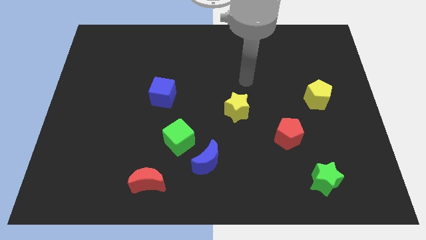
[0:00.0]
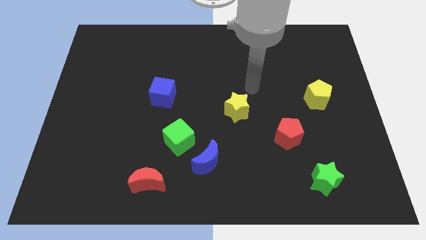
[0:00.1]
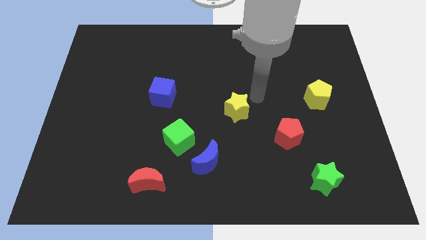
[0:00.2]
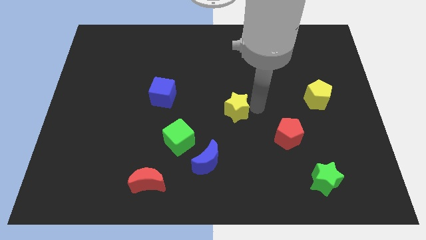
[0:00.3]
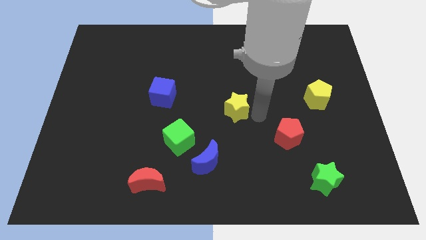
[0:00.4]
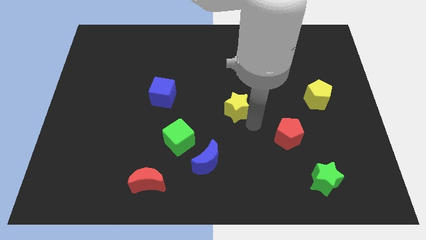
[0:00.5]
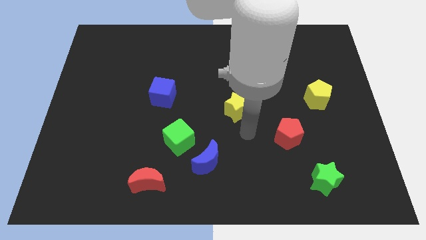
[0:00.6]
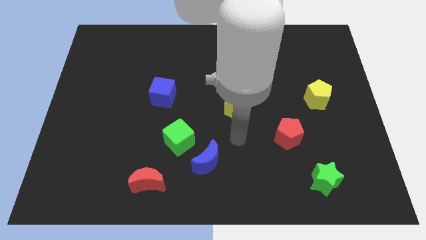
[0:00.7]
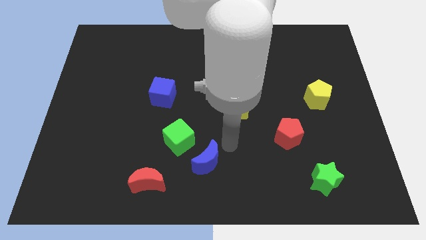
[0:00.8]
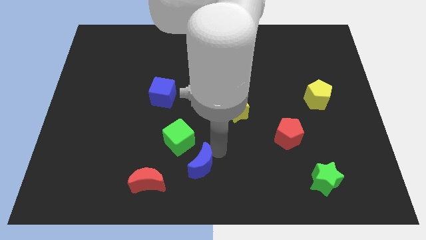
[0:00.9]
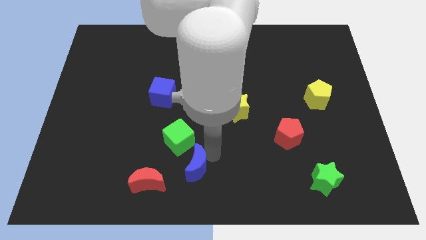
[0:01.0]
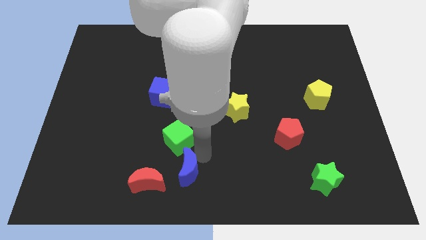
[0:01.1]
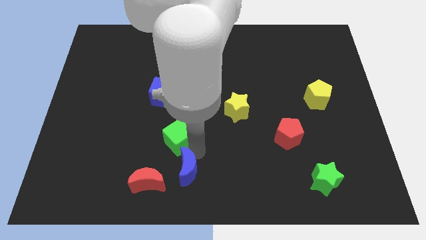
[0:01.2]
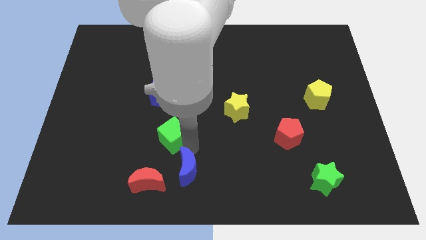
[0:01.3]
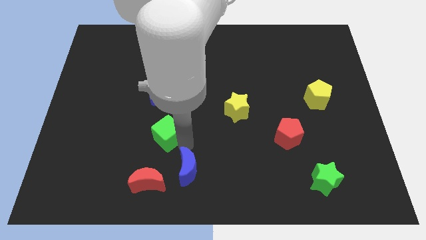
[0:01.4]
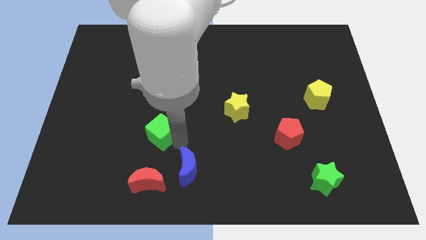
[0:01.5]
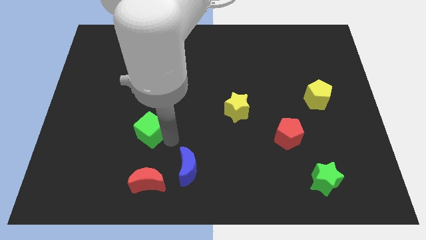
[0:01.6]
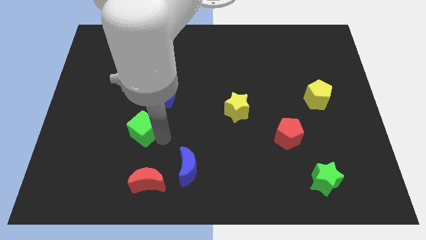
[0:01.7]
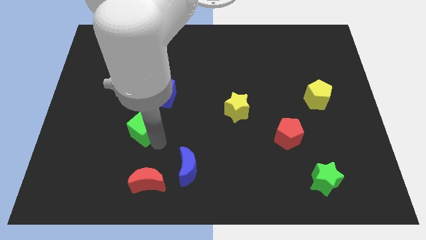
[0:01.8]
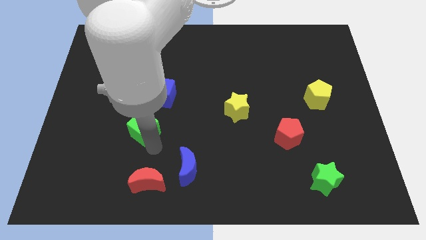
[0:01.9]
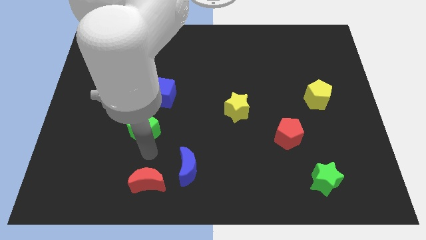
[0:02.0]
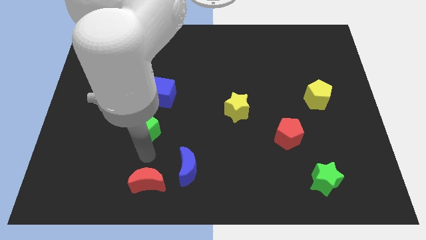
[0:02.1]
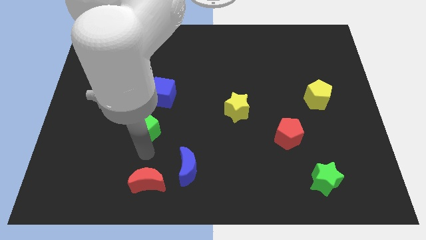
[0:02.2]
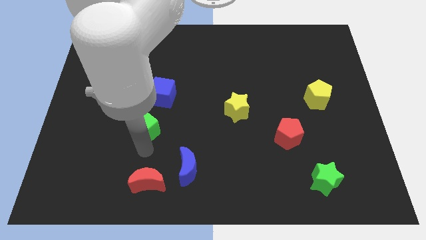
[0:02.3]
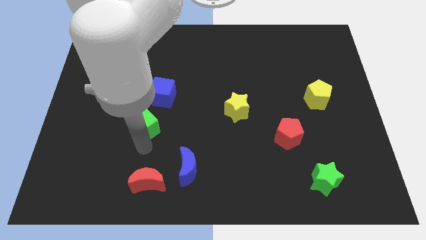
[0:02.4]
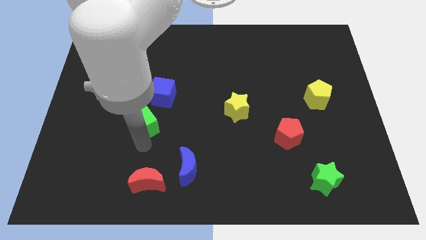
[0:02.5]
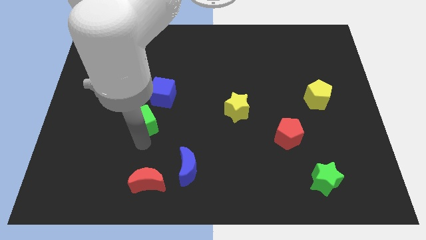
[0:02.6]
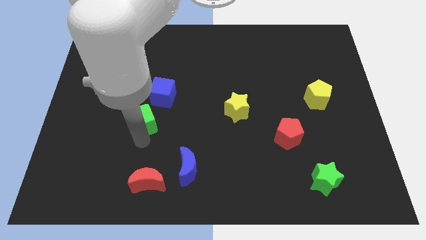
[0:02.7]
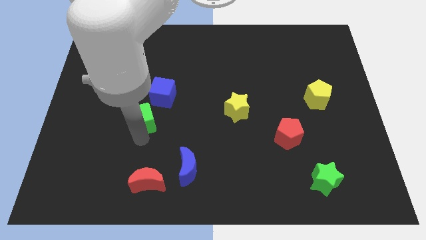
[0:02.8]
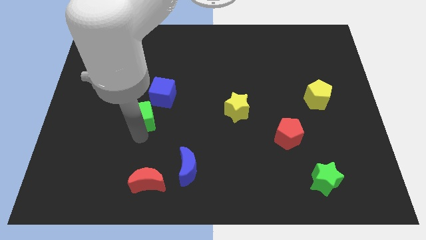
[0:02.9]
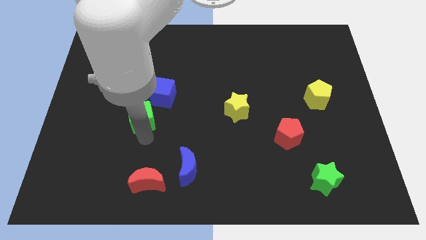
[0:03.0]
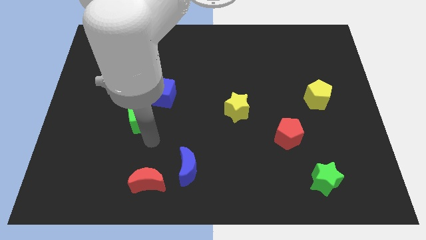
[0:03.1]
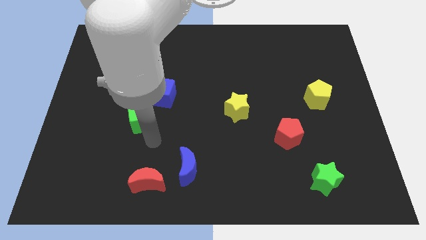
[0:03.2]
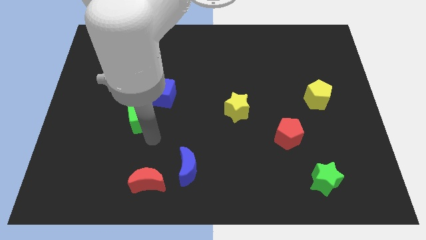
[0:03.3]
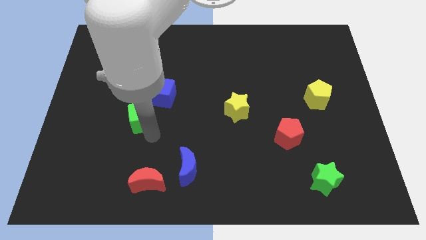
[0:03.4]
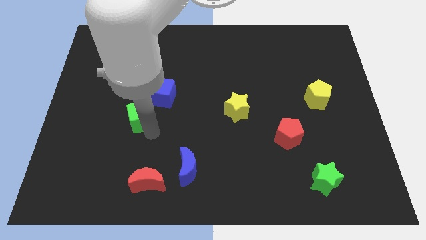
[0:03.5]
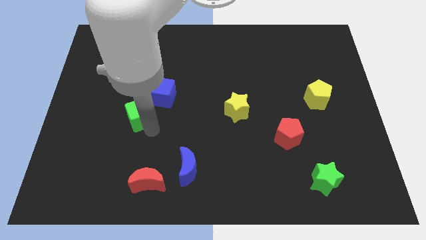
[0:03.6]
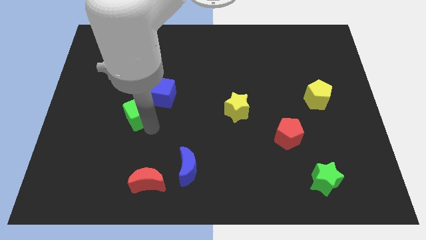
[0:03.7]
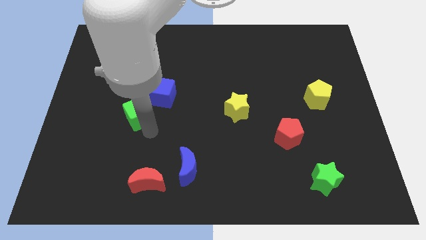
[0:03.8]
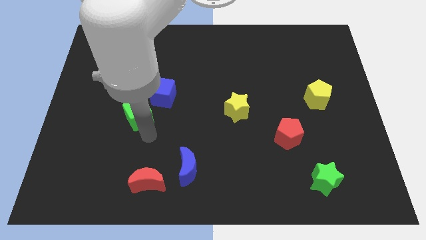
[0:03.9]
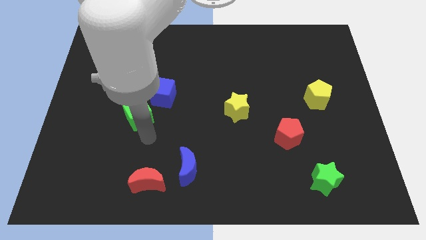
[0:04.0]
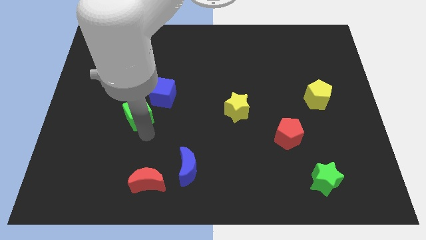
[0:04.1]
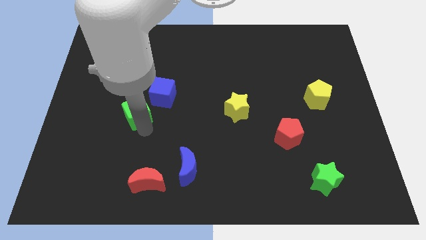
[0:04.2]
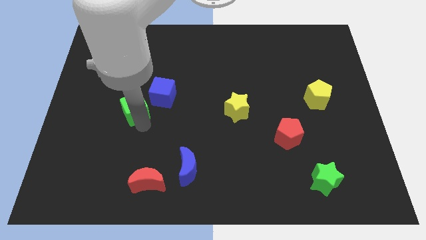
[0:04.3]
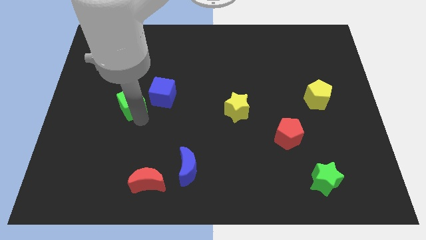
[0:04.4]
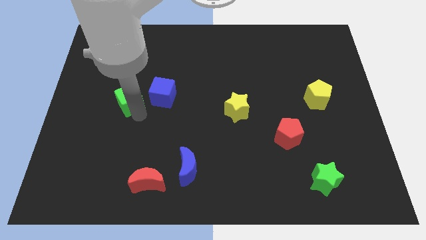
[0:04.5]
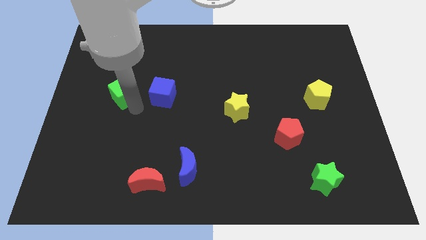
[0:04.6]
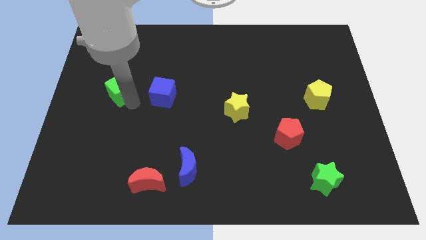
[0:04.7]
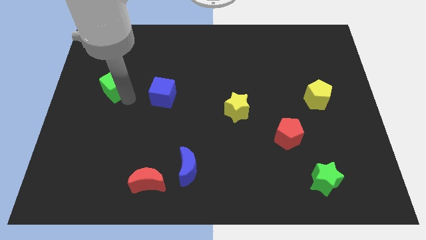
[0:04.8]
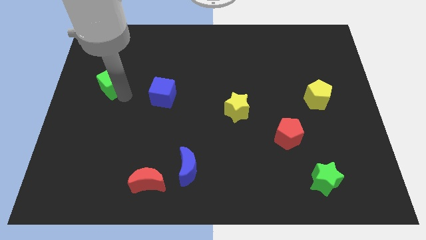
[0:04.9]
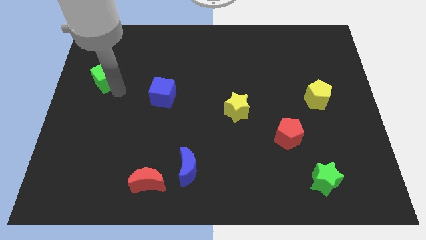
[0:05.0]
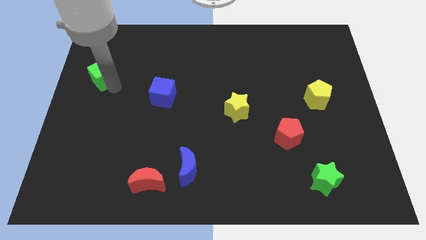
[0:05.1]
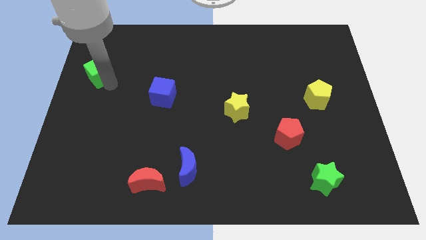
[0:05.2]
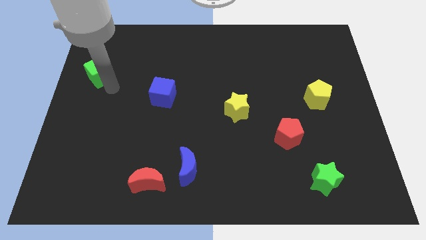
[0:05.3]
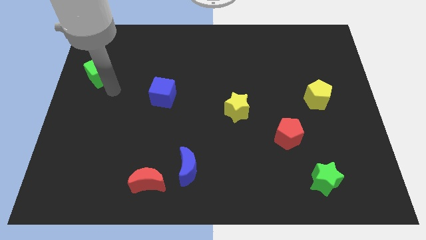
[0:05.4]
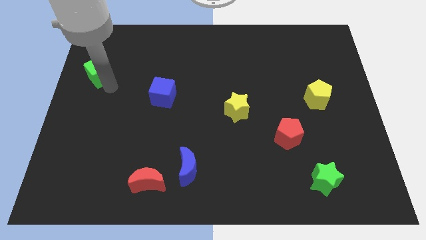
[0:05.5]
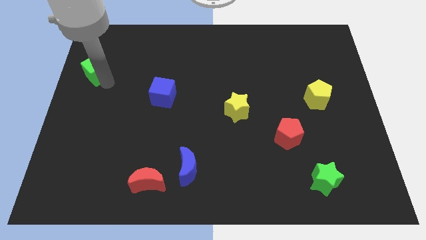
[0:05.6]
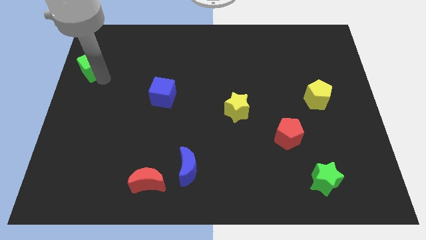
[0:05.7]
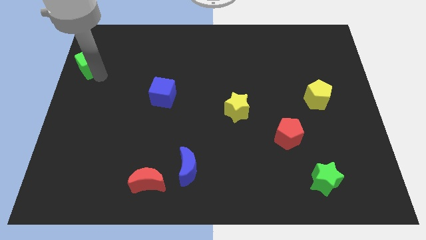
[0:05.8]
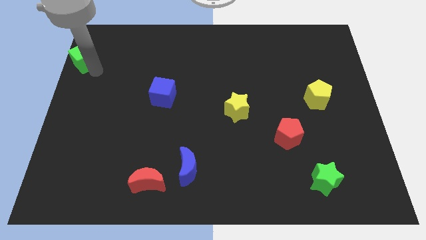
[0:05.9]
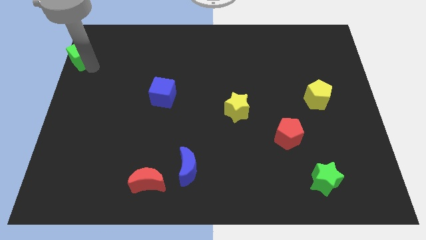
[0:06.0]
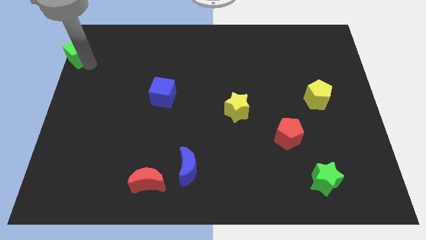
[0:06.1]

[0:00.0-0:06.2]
put the green cube to the top left
